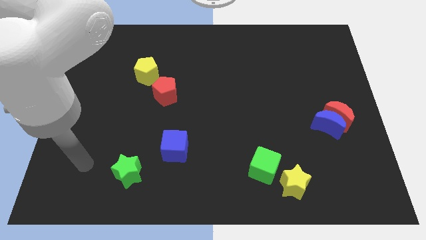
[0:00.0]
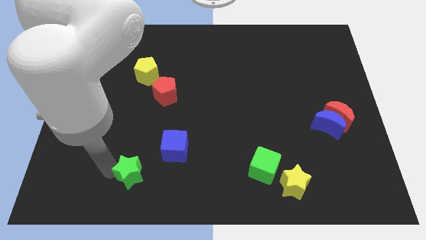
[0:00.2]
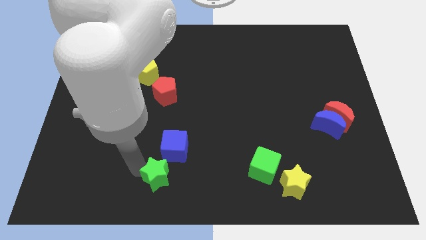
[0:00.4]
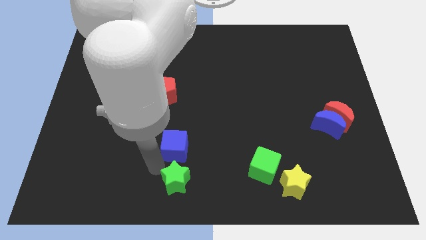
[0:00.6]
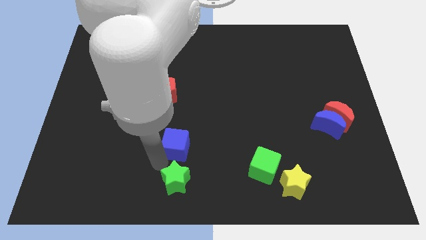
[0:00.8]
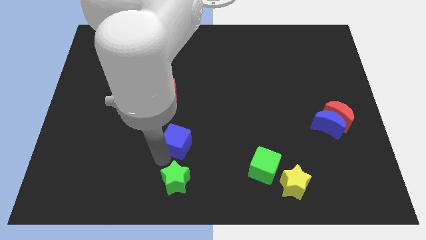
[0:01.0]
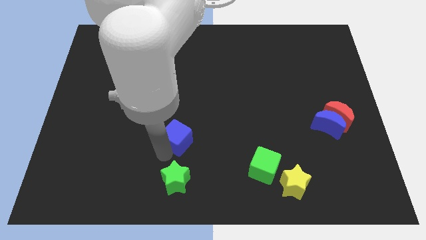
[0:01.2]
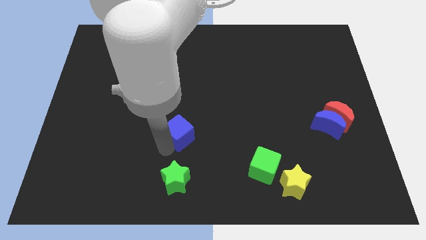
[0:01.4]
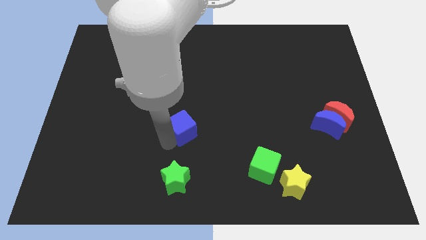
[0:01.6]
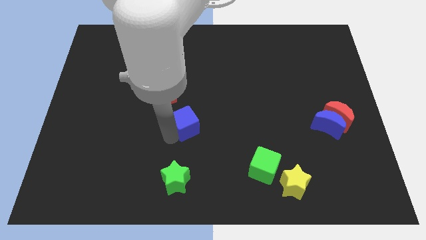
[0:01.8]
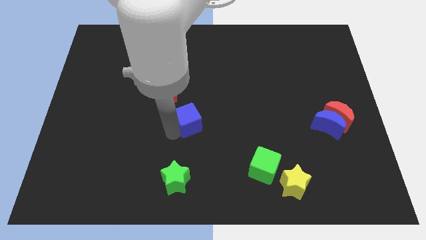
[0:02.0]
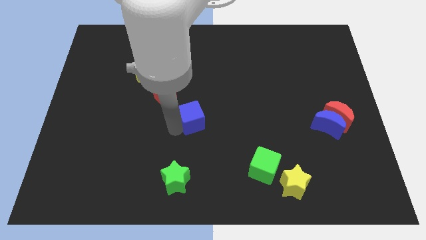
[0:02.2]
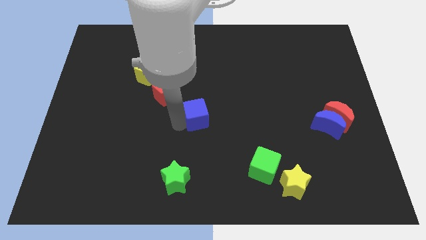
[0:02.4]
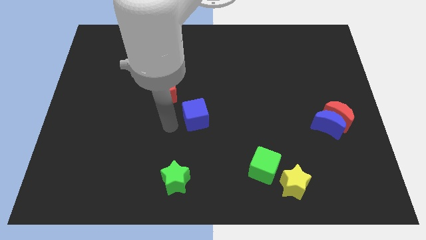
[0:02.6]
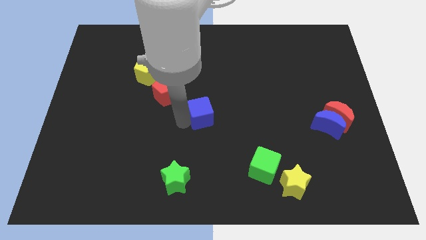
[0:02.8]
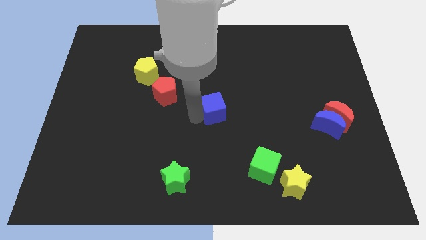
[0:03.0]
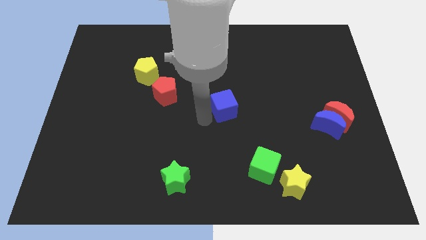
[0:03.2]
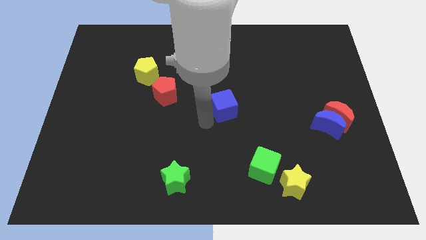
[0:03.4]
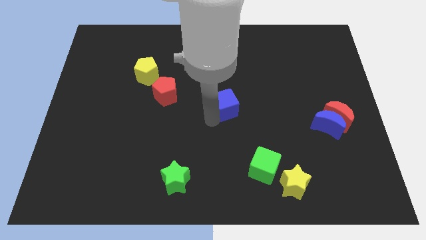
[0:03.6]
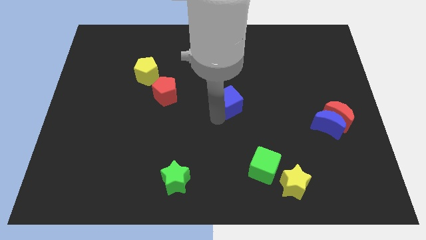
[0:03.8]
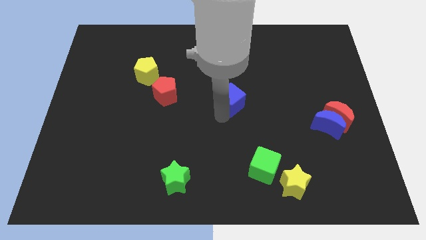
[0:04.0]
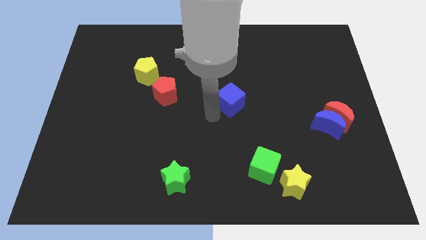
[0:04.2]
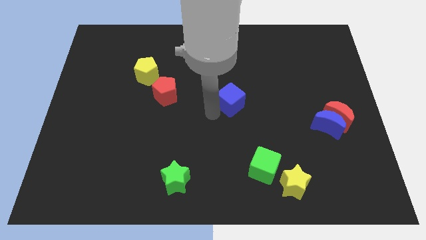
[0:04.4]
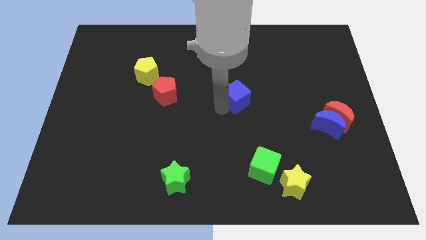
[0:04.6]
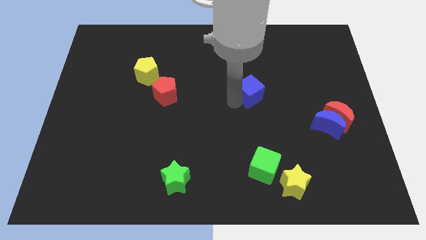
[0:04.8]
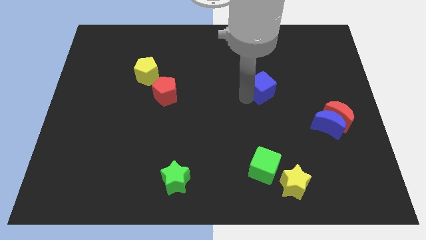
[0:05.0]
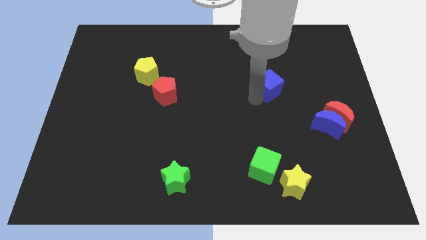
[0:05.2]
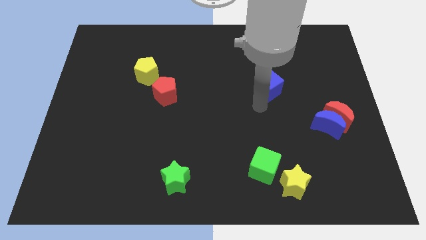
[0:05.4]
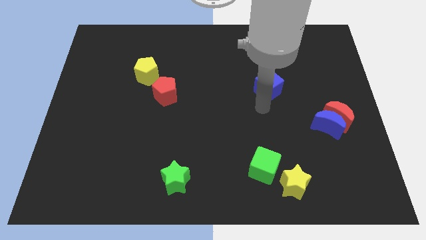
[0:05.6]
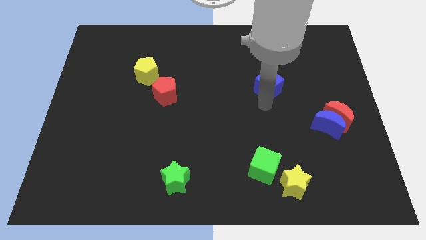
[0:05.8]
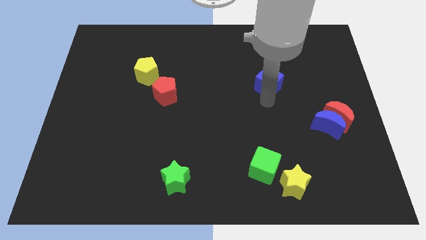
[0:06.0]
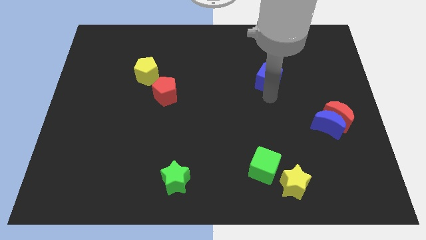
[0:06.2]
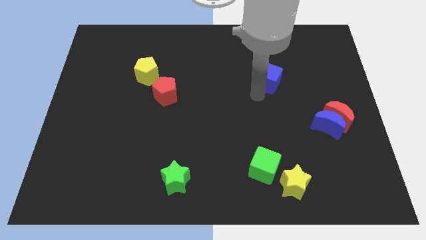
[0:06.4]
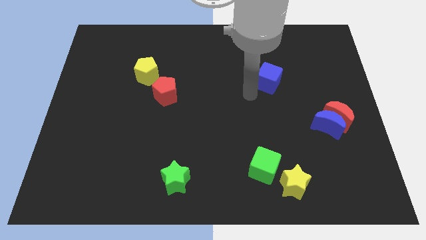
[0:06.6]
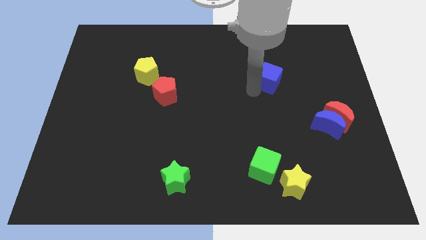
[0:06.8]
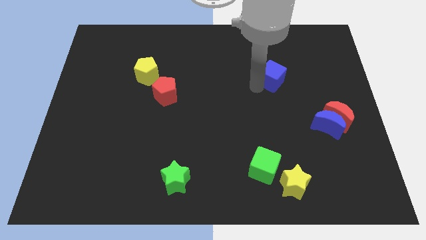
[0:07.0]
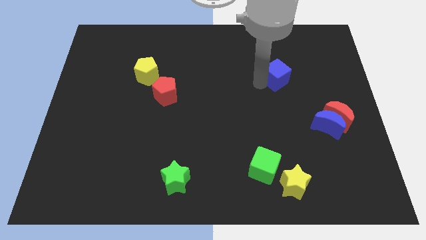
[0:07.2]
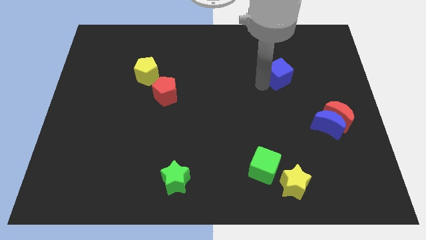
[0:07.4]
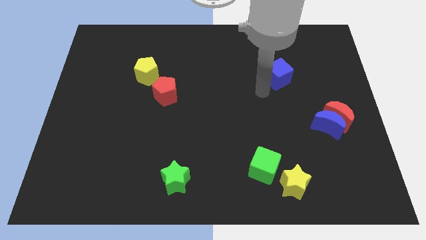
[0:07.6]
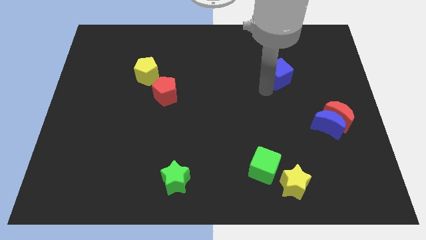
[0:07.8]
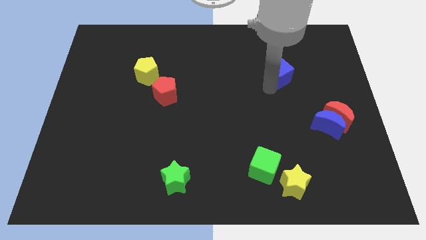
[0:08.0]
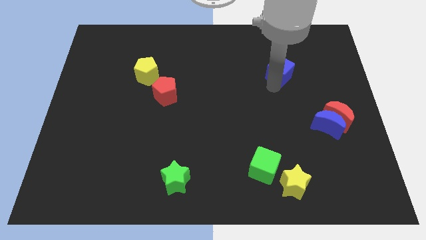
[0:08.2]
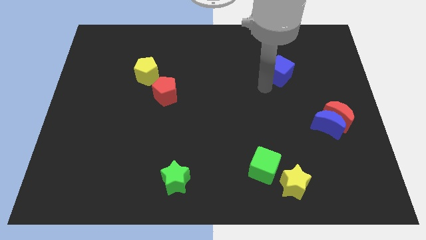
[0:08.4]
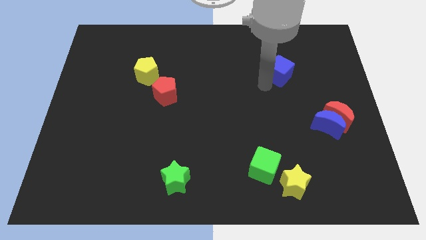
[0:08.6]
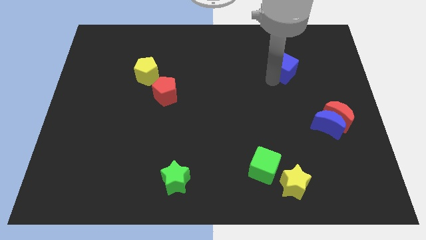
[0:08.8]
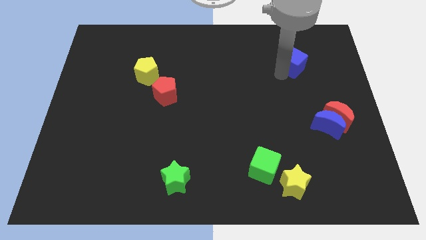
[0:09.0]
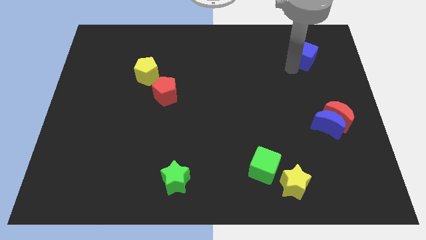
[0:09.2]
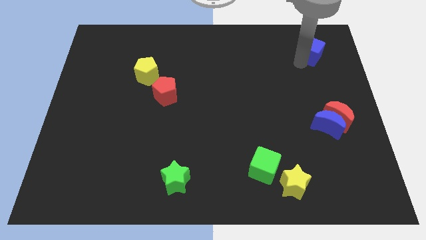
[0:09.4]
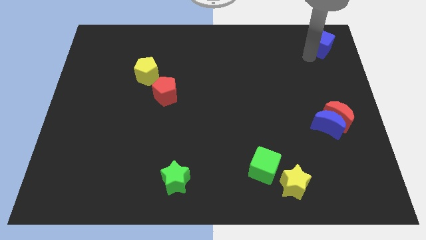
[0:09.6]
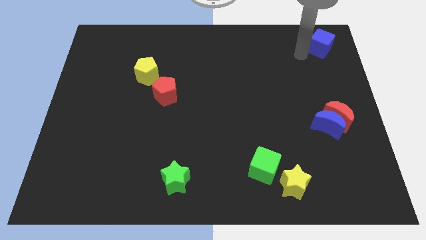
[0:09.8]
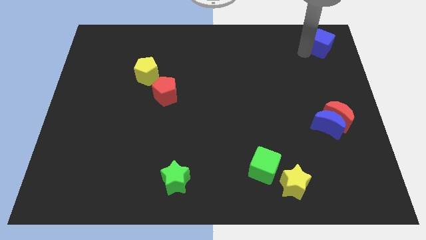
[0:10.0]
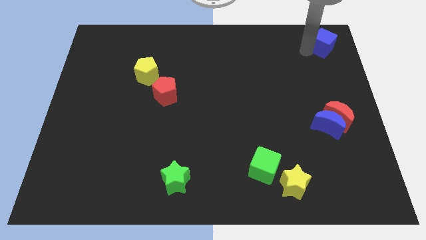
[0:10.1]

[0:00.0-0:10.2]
slide the blue cube to the top right corner
